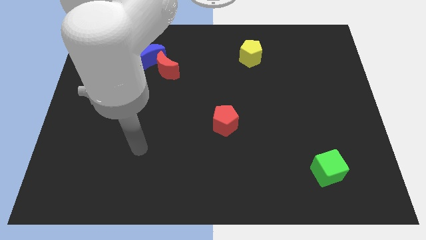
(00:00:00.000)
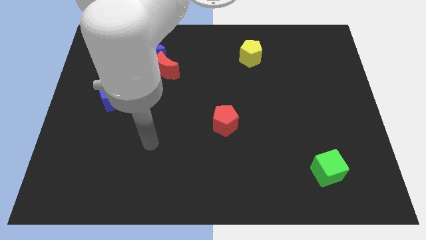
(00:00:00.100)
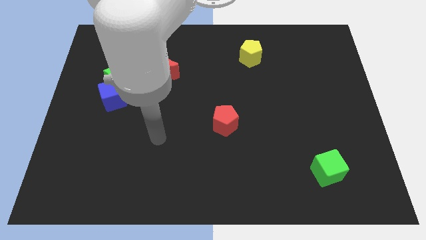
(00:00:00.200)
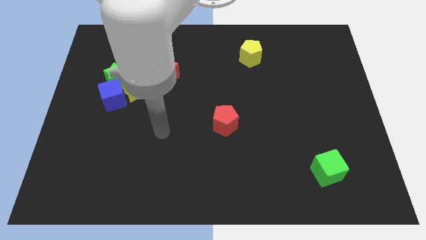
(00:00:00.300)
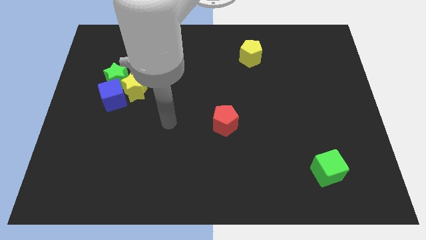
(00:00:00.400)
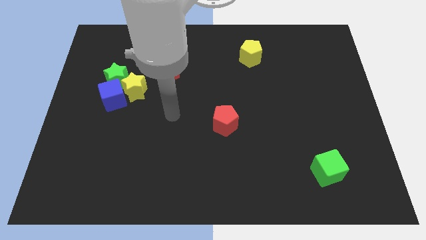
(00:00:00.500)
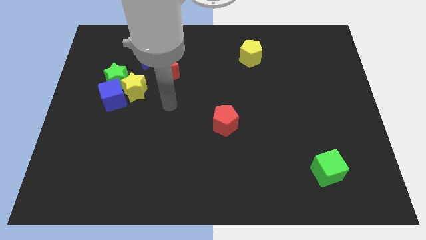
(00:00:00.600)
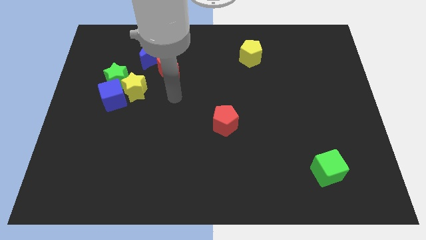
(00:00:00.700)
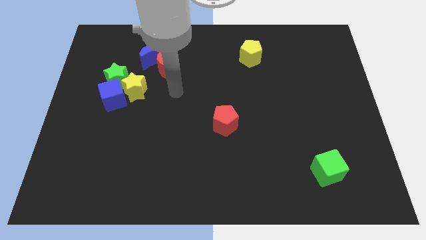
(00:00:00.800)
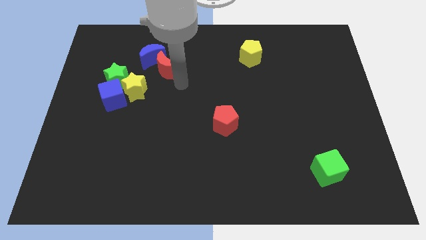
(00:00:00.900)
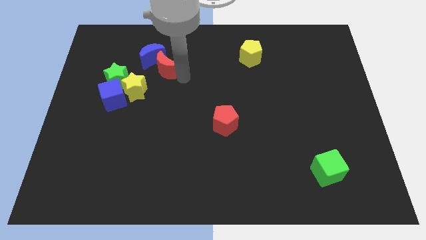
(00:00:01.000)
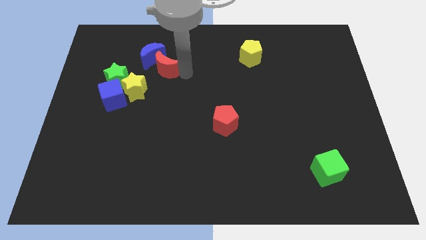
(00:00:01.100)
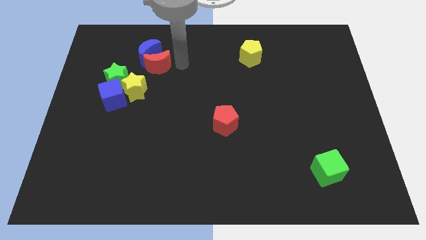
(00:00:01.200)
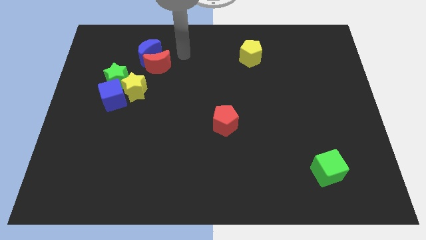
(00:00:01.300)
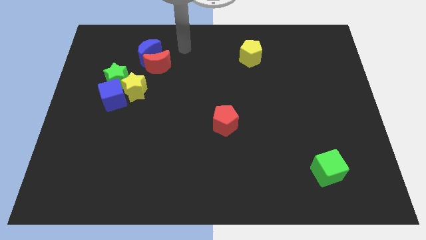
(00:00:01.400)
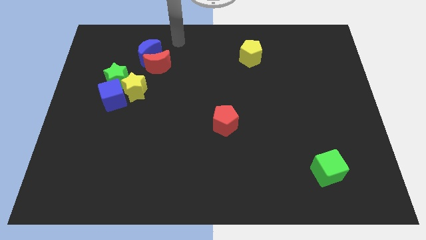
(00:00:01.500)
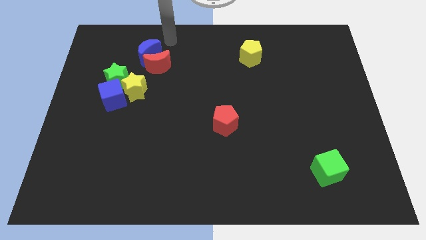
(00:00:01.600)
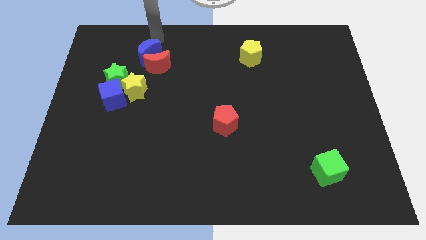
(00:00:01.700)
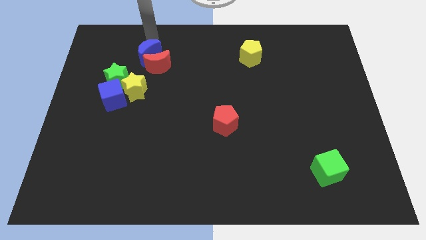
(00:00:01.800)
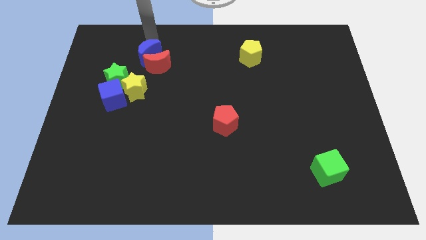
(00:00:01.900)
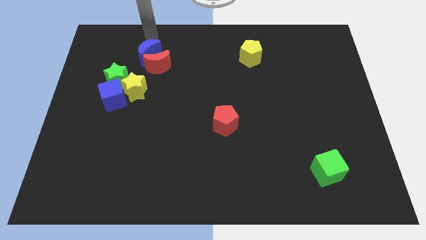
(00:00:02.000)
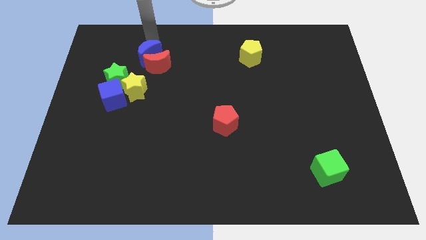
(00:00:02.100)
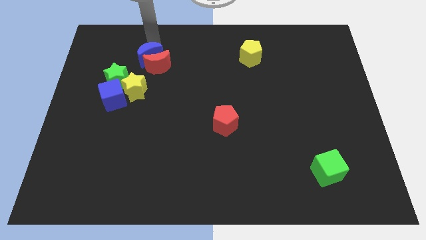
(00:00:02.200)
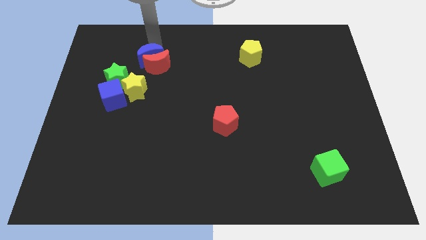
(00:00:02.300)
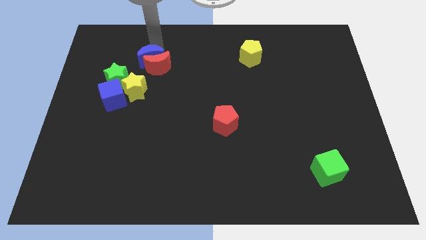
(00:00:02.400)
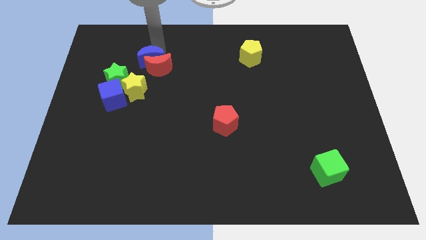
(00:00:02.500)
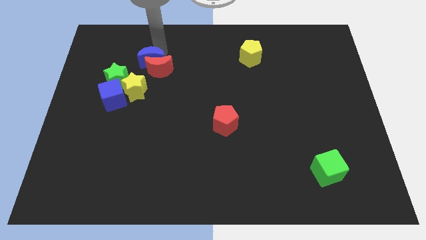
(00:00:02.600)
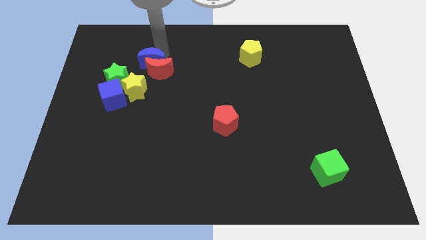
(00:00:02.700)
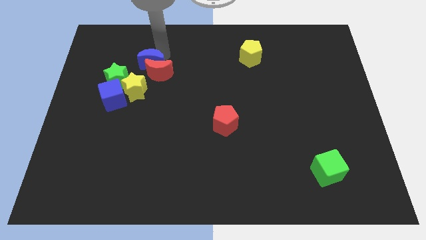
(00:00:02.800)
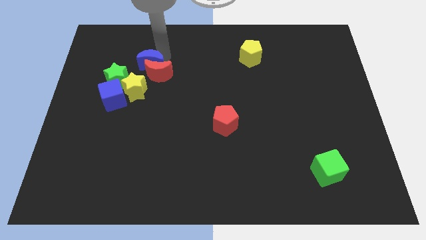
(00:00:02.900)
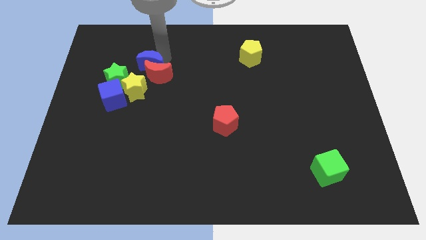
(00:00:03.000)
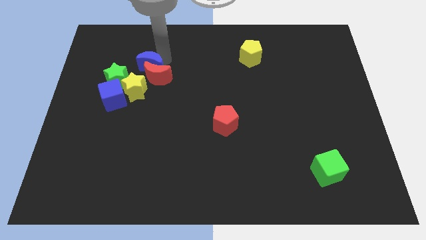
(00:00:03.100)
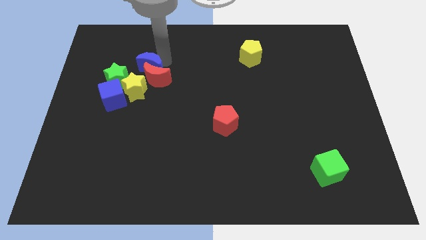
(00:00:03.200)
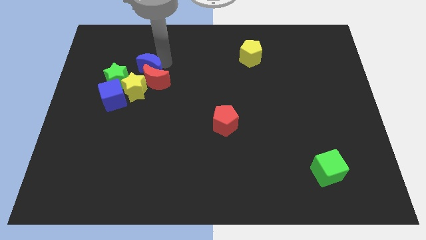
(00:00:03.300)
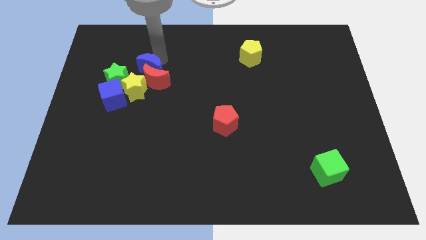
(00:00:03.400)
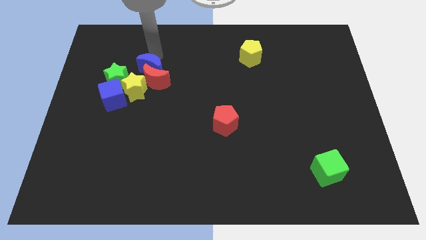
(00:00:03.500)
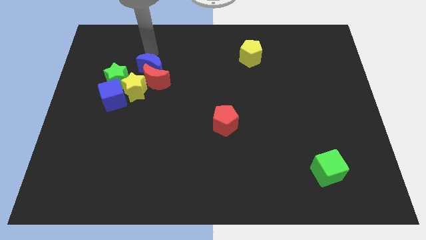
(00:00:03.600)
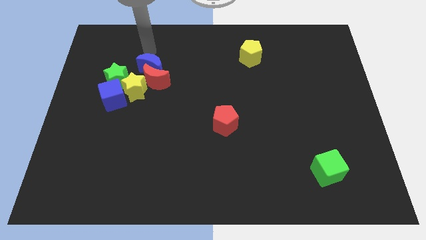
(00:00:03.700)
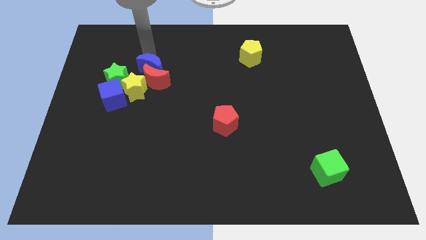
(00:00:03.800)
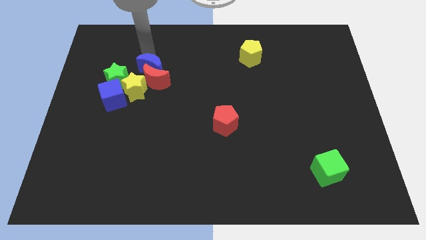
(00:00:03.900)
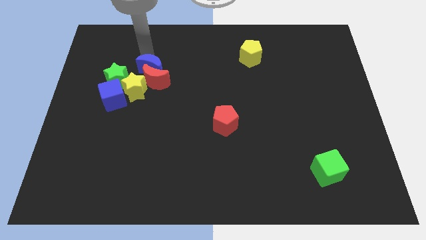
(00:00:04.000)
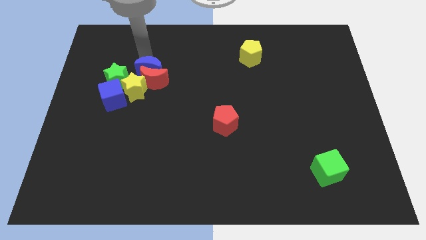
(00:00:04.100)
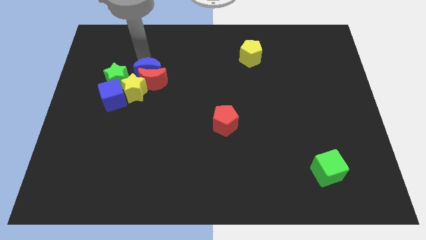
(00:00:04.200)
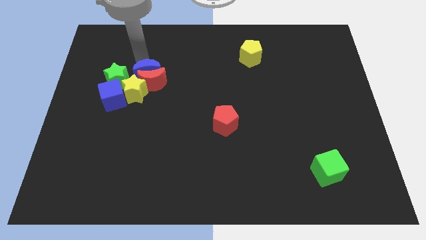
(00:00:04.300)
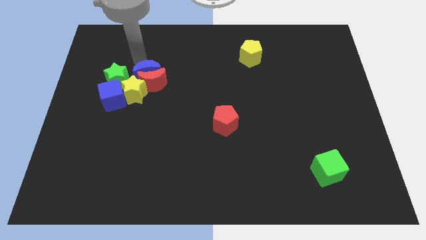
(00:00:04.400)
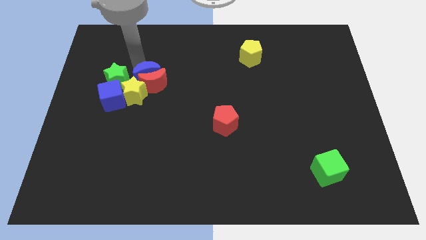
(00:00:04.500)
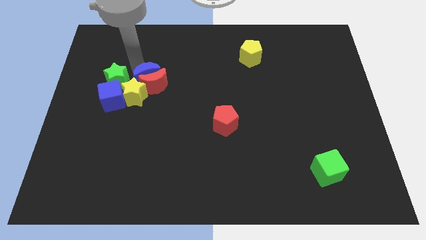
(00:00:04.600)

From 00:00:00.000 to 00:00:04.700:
slightly slide the blue moon down

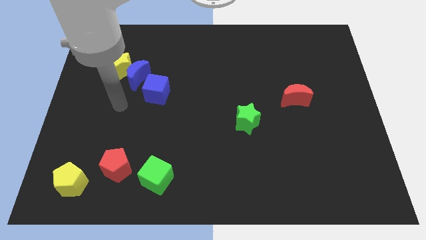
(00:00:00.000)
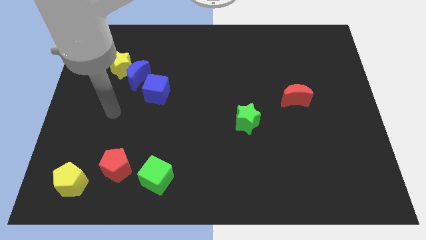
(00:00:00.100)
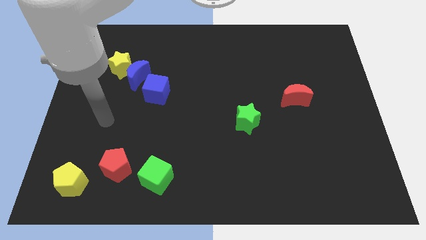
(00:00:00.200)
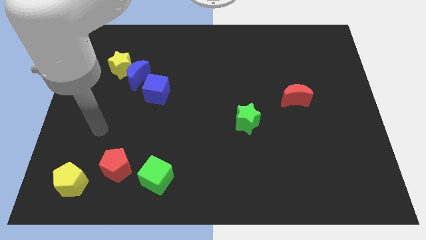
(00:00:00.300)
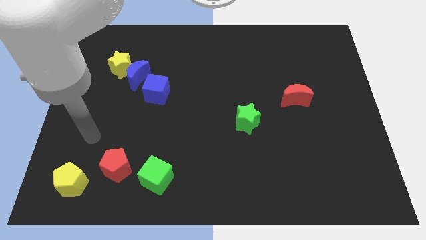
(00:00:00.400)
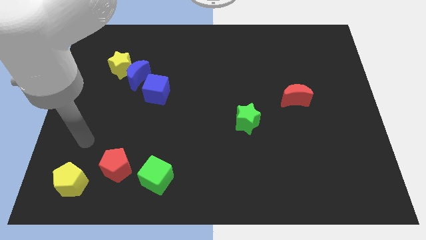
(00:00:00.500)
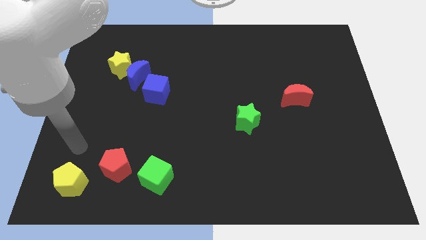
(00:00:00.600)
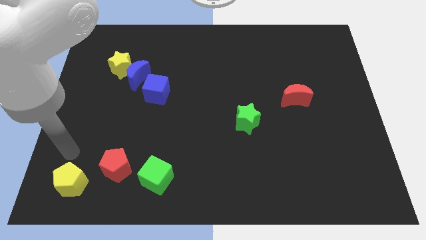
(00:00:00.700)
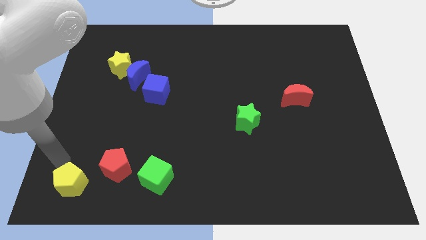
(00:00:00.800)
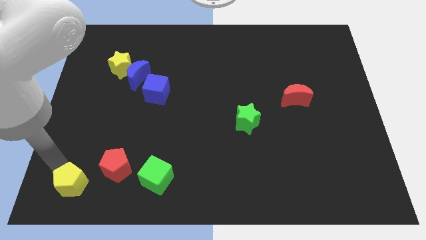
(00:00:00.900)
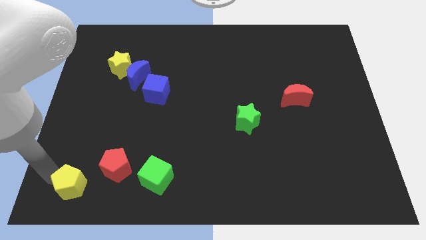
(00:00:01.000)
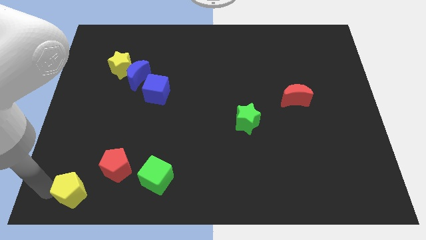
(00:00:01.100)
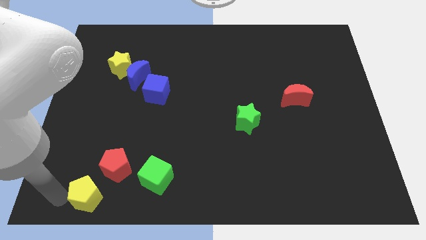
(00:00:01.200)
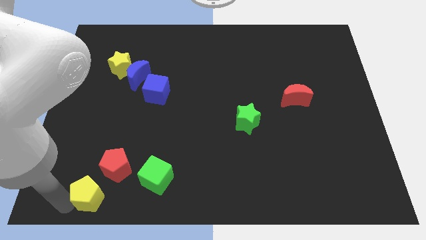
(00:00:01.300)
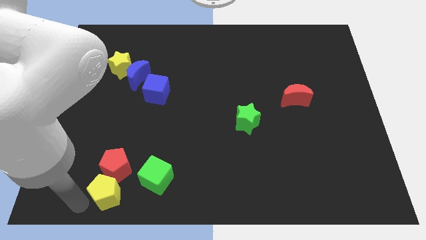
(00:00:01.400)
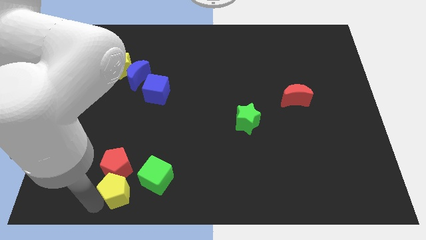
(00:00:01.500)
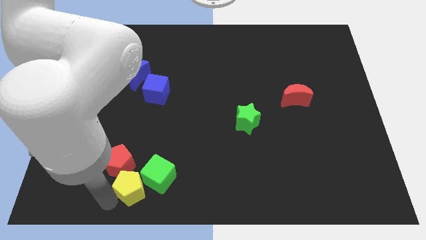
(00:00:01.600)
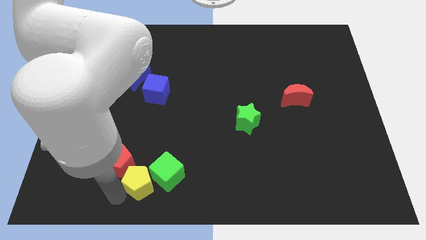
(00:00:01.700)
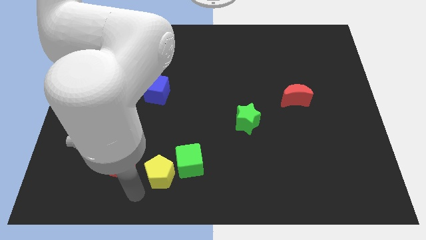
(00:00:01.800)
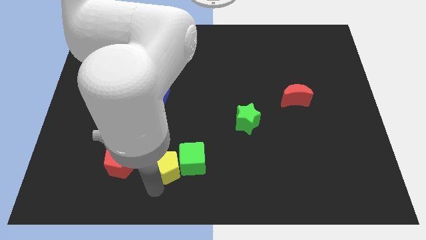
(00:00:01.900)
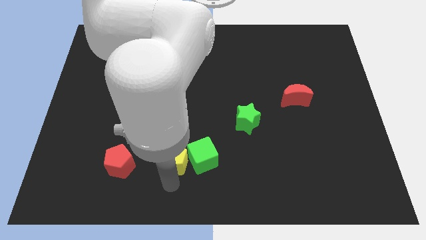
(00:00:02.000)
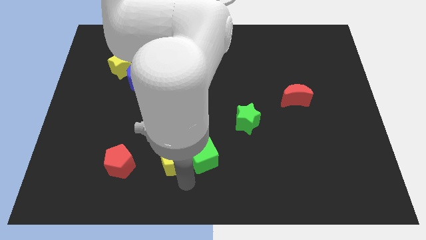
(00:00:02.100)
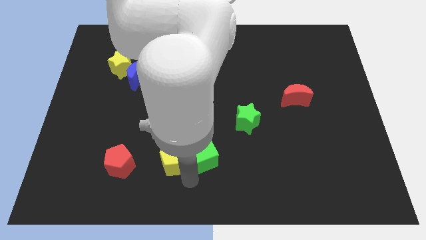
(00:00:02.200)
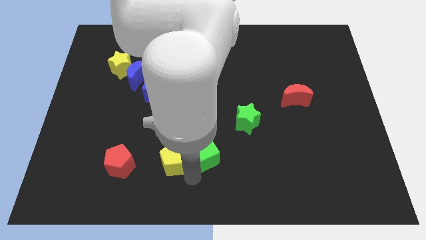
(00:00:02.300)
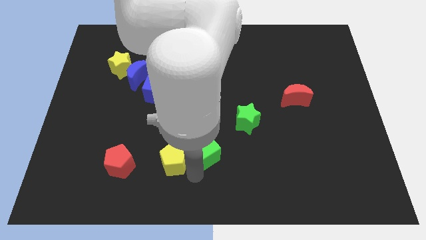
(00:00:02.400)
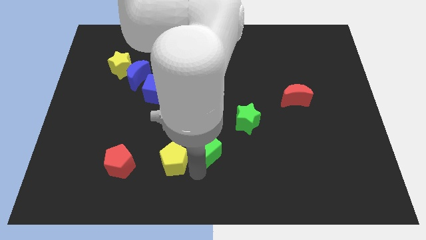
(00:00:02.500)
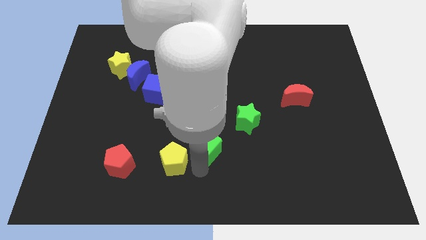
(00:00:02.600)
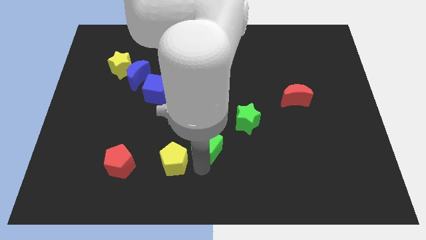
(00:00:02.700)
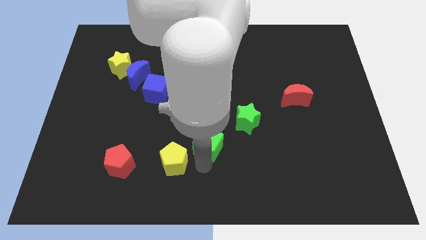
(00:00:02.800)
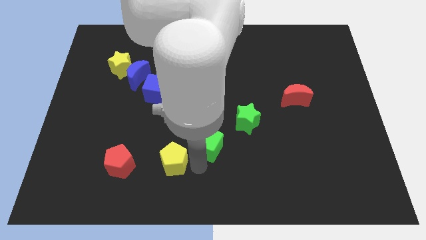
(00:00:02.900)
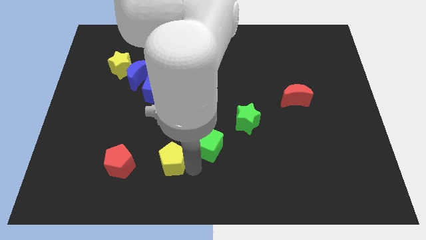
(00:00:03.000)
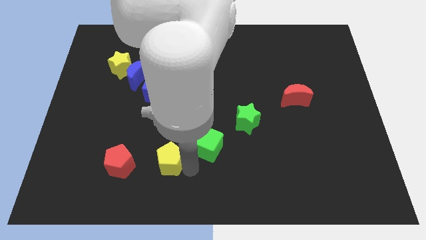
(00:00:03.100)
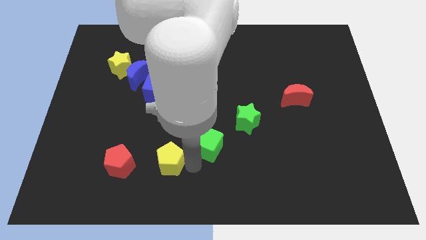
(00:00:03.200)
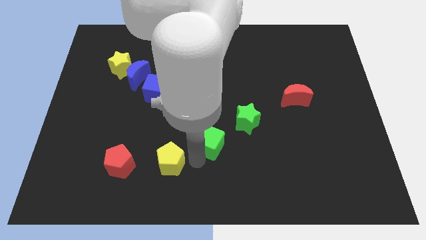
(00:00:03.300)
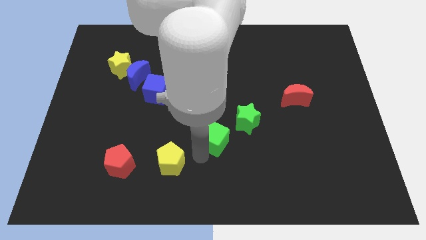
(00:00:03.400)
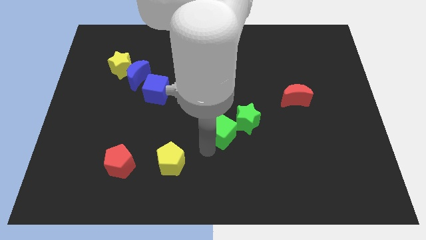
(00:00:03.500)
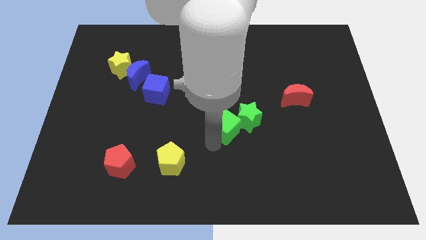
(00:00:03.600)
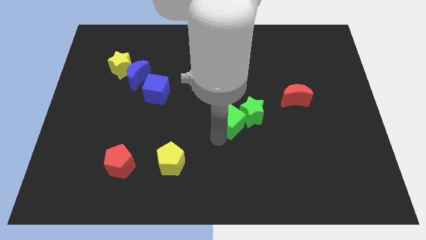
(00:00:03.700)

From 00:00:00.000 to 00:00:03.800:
push the green cube diagonally upwards and right
